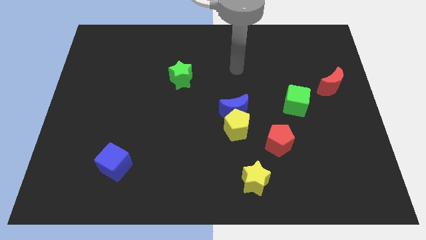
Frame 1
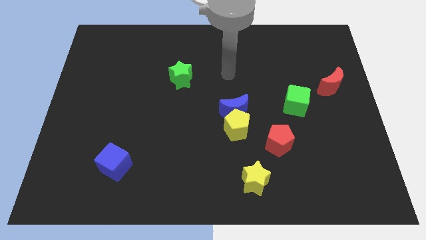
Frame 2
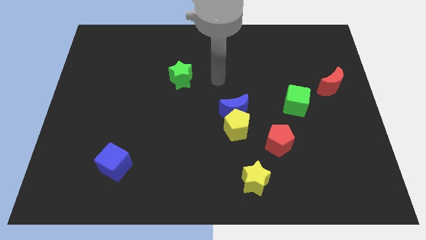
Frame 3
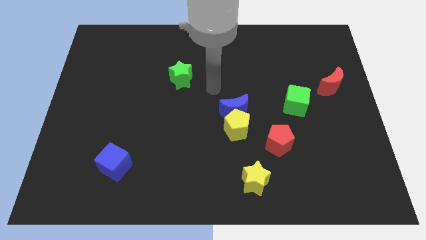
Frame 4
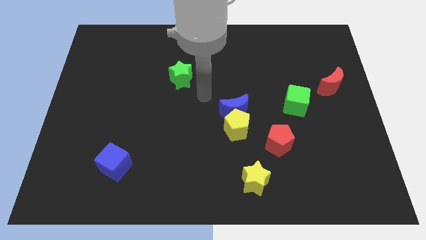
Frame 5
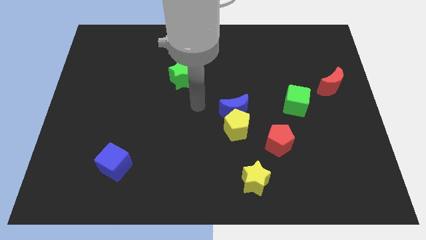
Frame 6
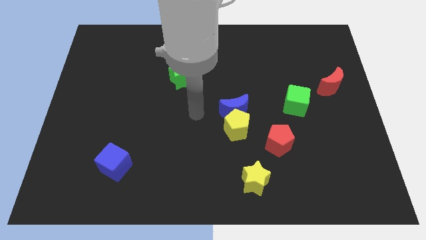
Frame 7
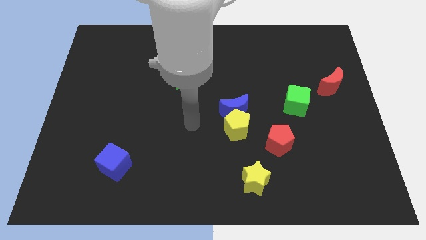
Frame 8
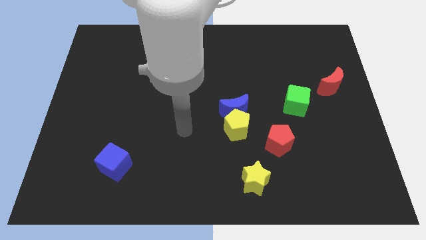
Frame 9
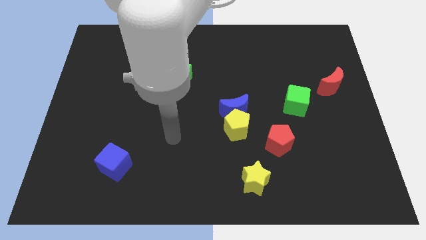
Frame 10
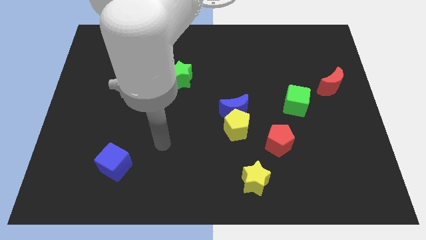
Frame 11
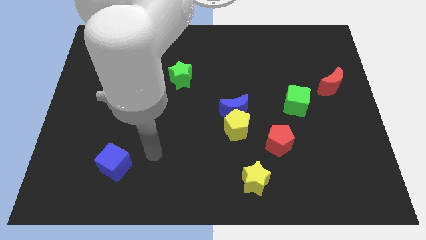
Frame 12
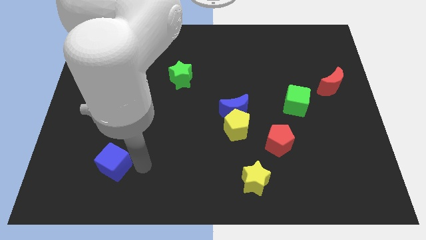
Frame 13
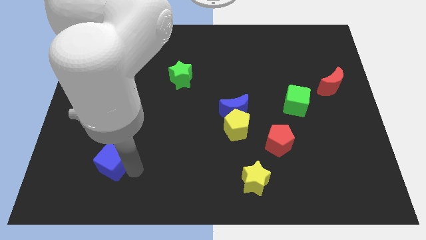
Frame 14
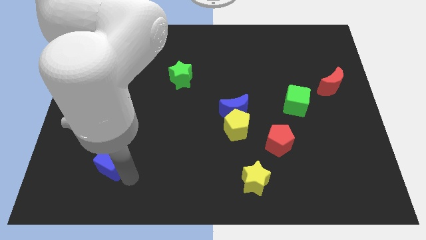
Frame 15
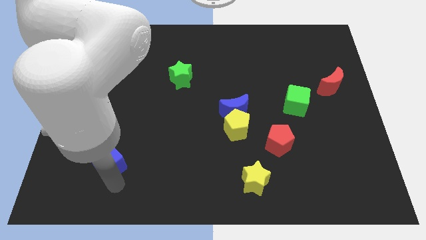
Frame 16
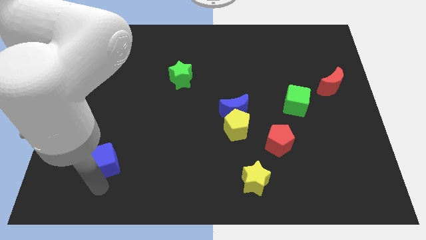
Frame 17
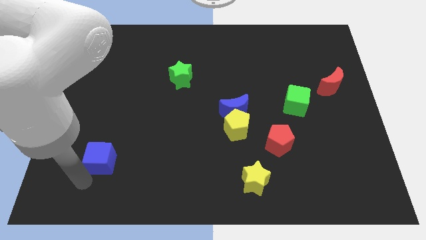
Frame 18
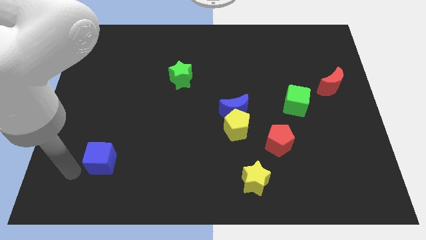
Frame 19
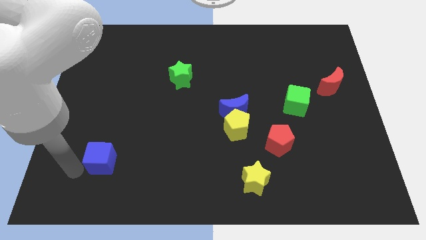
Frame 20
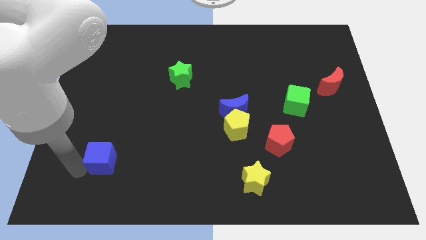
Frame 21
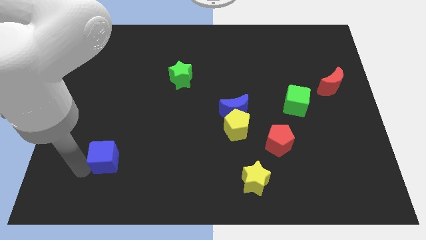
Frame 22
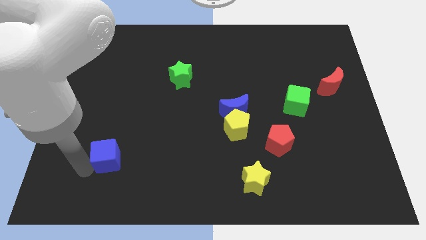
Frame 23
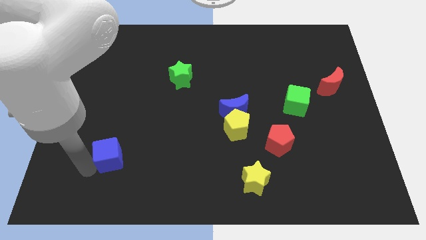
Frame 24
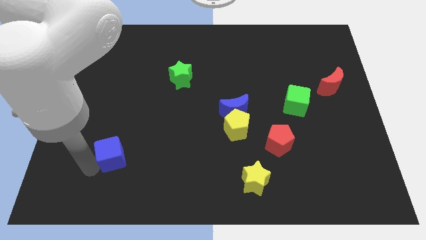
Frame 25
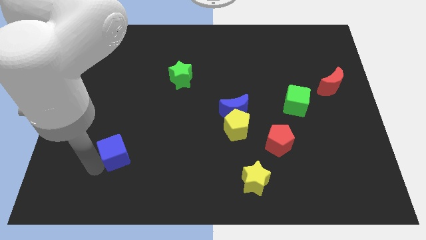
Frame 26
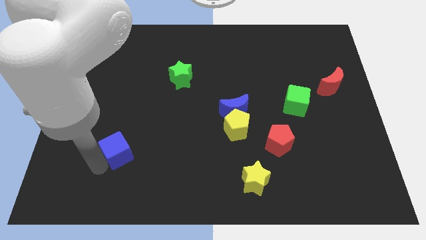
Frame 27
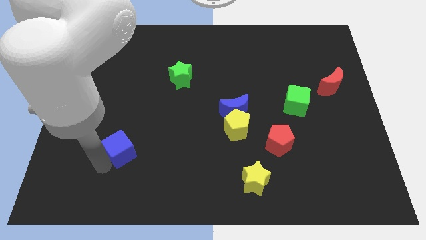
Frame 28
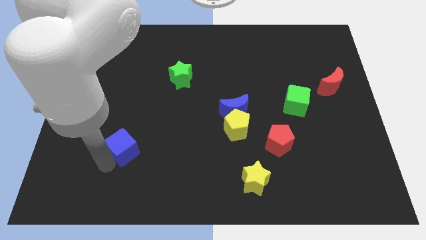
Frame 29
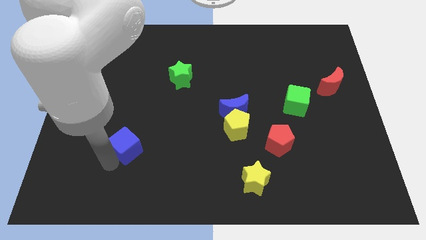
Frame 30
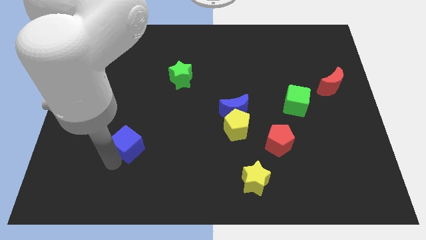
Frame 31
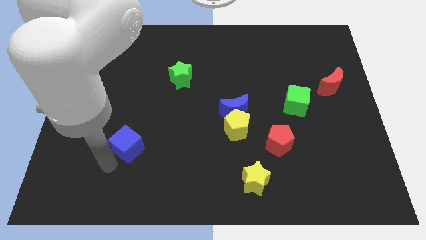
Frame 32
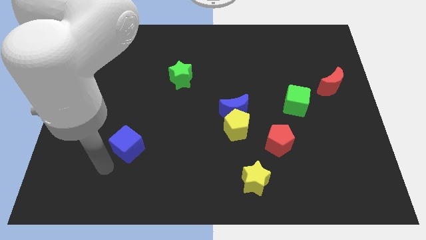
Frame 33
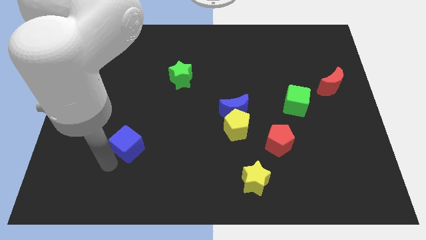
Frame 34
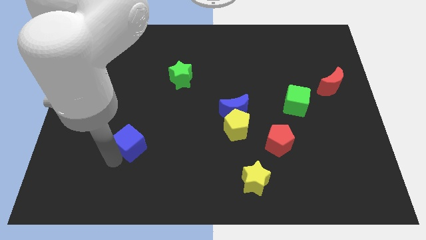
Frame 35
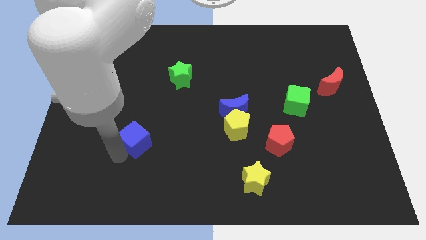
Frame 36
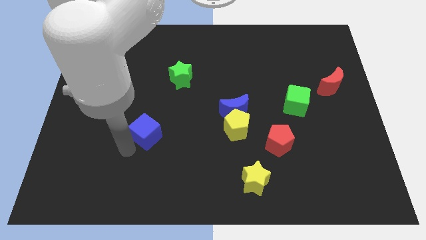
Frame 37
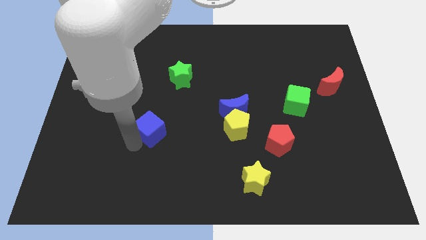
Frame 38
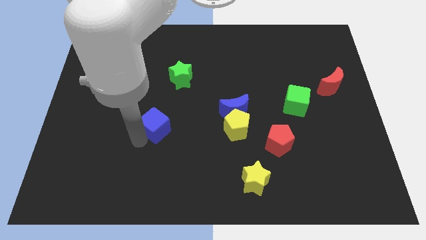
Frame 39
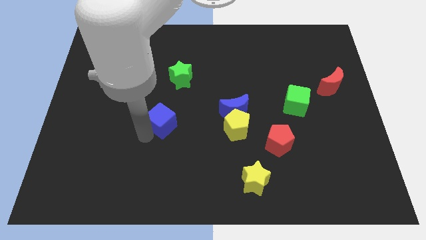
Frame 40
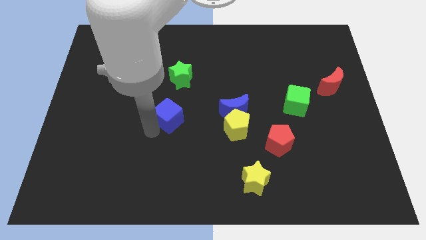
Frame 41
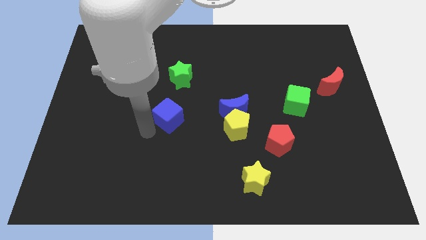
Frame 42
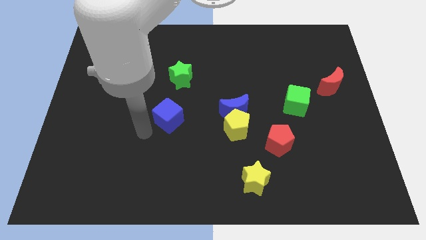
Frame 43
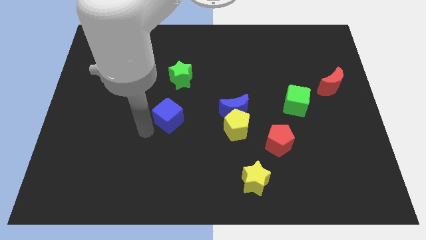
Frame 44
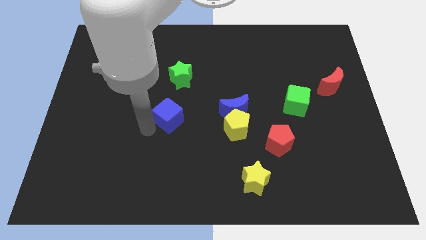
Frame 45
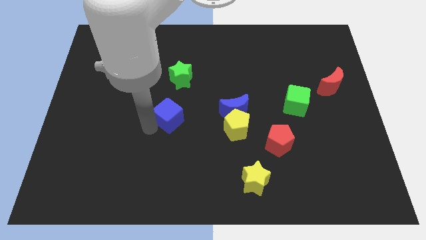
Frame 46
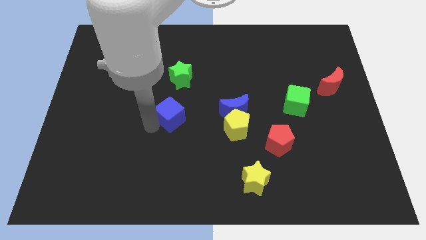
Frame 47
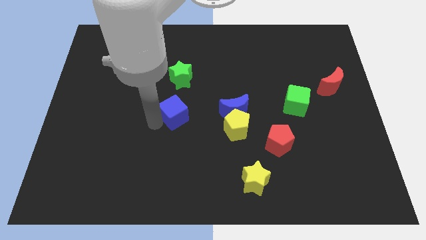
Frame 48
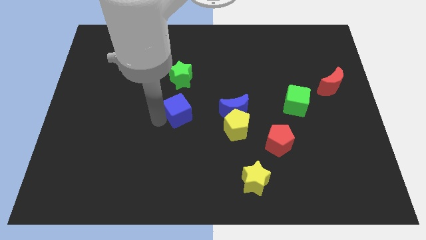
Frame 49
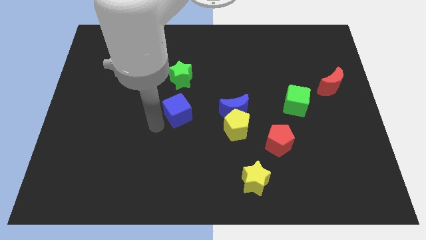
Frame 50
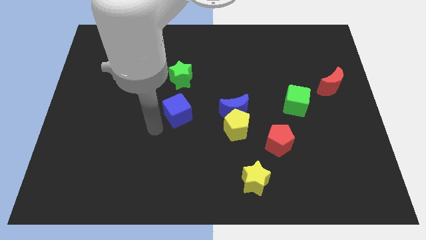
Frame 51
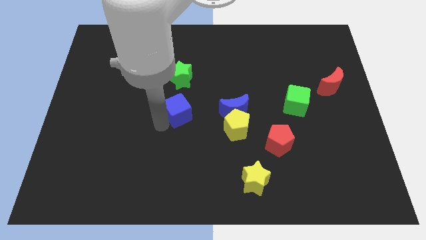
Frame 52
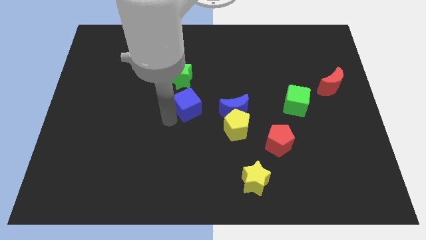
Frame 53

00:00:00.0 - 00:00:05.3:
slide the blue cube upwards and to the right

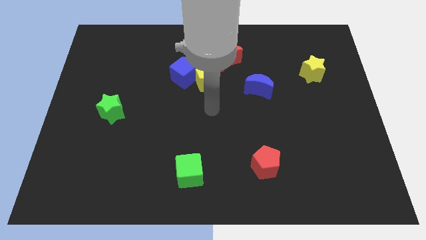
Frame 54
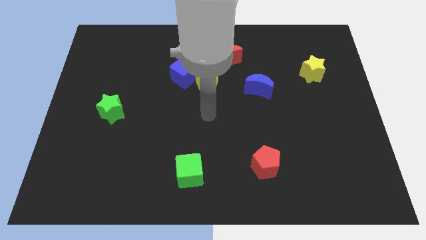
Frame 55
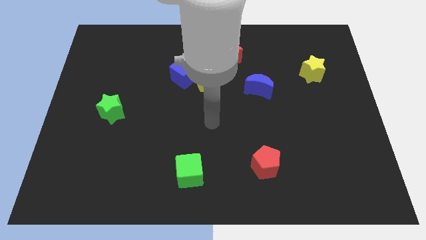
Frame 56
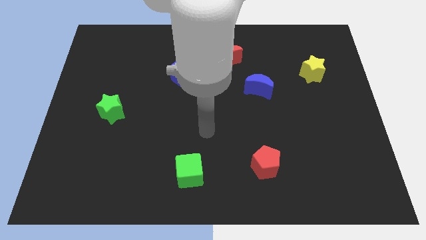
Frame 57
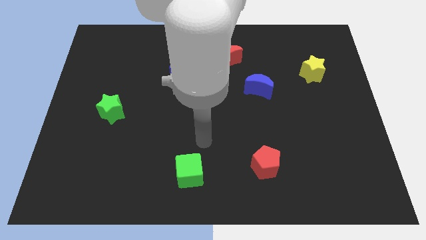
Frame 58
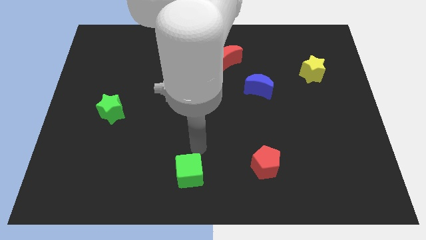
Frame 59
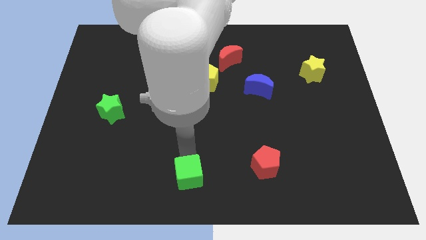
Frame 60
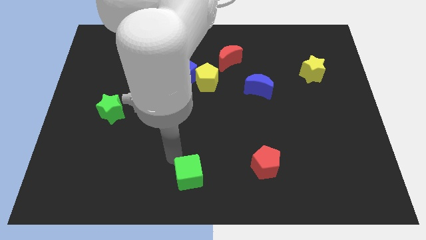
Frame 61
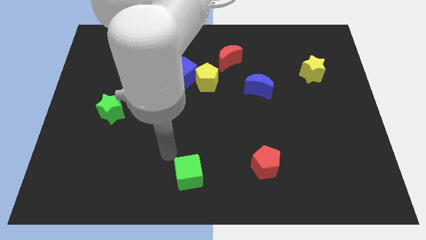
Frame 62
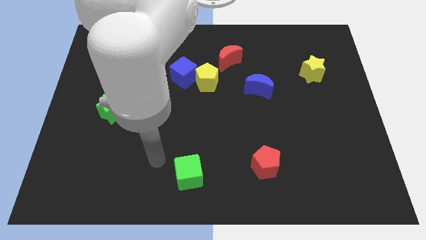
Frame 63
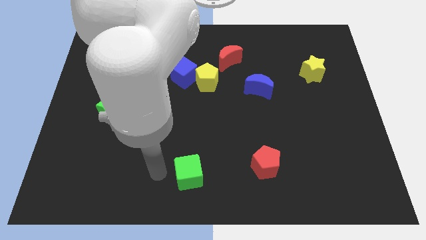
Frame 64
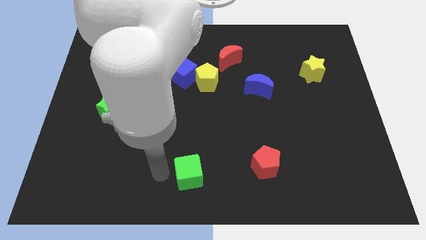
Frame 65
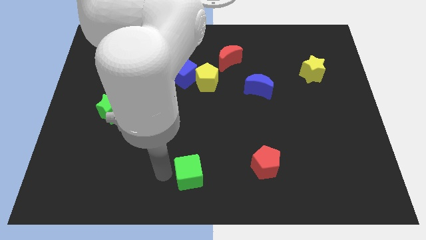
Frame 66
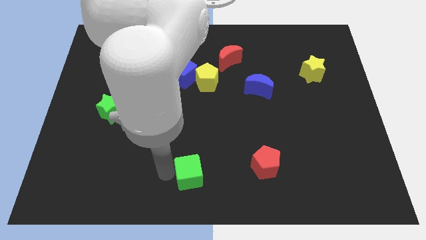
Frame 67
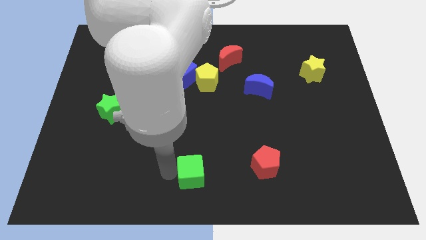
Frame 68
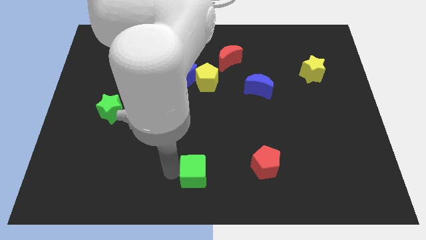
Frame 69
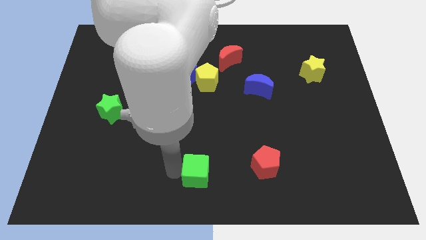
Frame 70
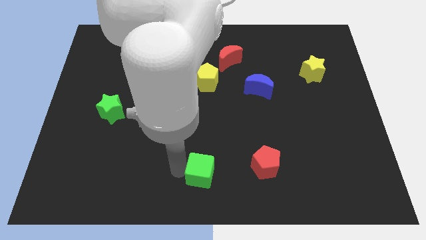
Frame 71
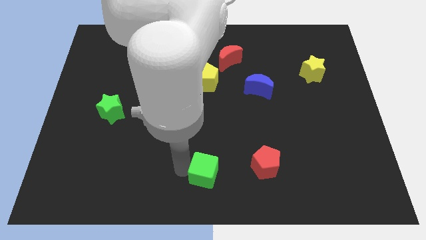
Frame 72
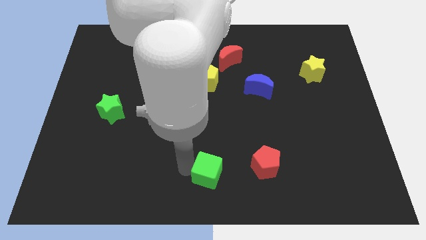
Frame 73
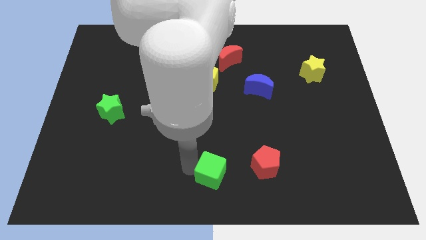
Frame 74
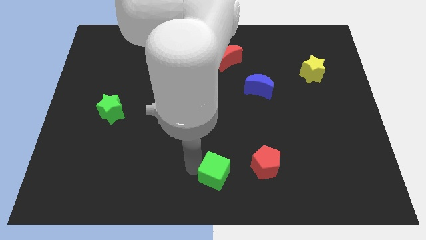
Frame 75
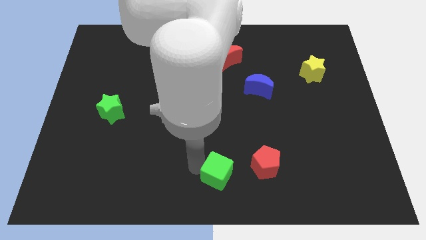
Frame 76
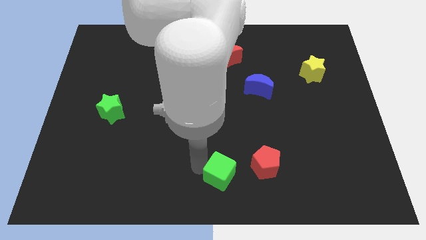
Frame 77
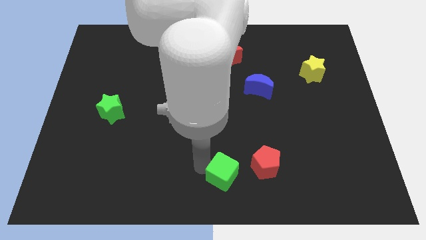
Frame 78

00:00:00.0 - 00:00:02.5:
slightly slide the green cube to the right

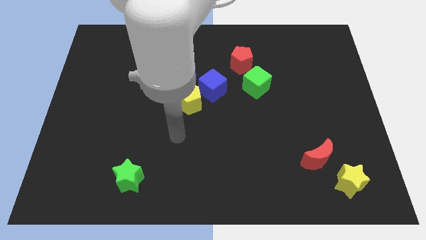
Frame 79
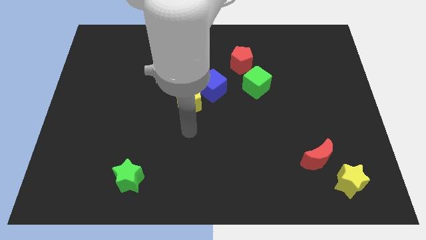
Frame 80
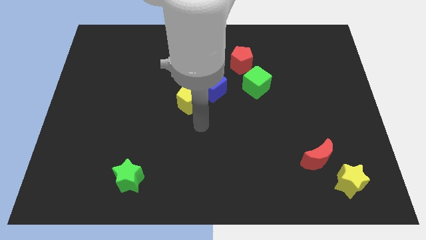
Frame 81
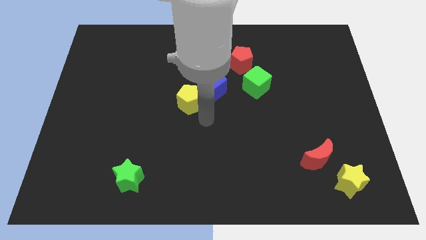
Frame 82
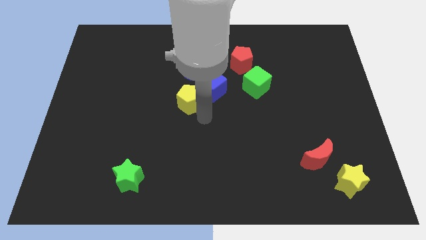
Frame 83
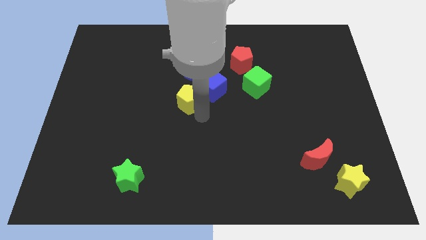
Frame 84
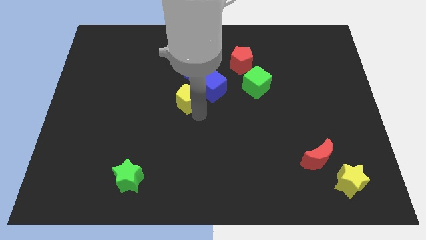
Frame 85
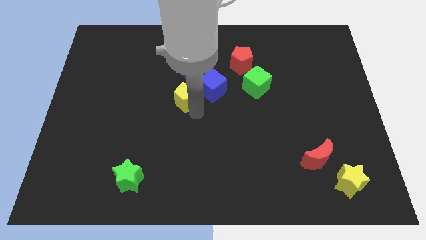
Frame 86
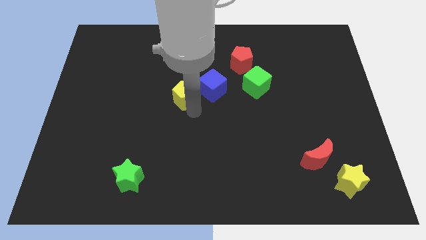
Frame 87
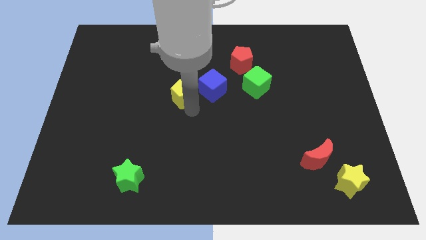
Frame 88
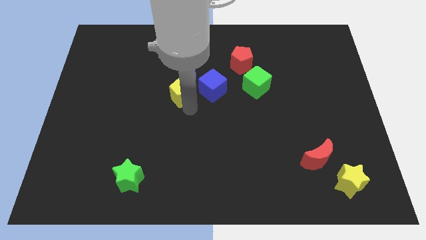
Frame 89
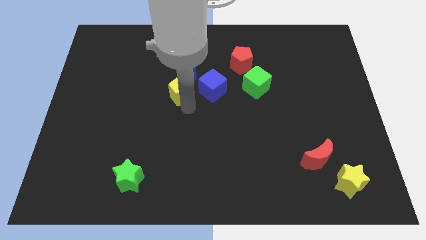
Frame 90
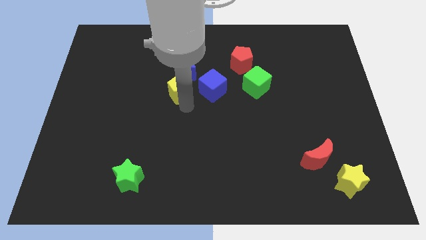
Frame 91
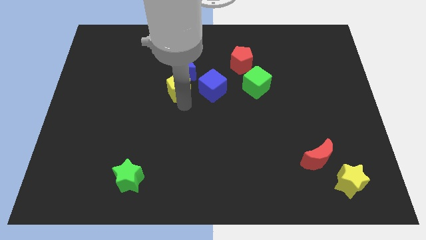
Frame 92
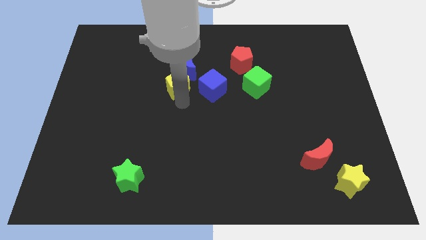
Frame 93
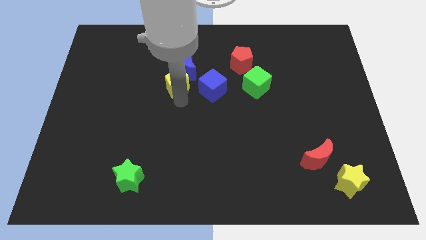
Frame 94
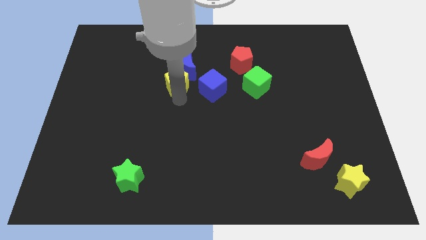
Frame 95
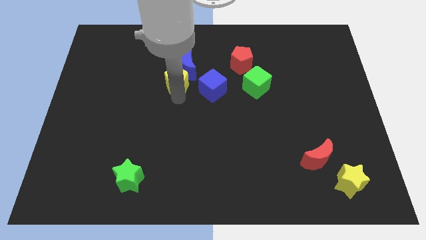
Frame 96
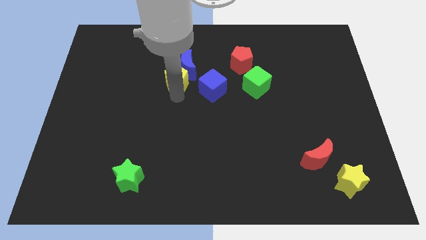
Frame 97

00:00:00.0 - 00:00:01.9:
push the yellow pentagon up and left diagonally slightly
